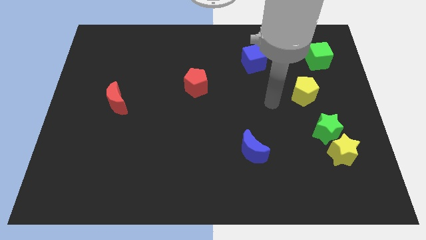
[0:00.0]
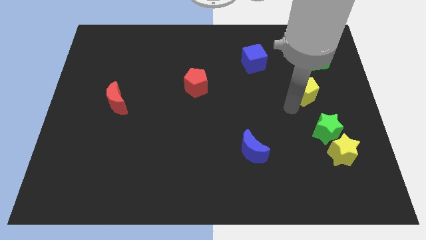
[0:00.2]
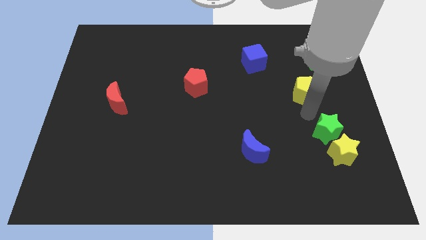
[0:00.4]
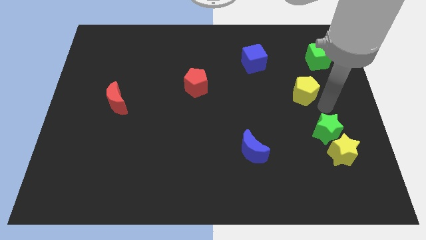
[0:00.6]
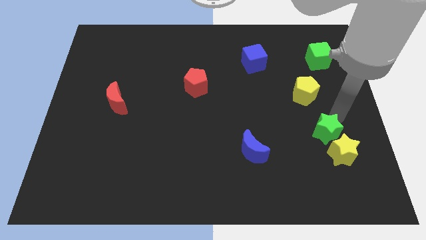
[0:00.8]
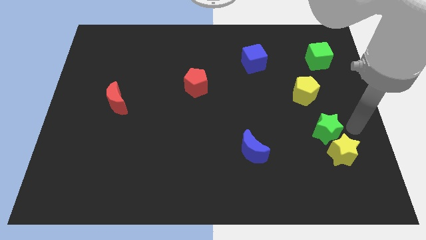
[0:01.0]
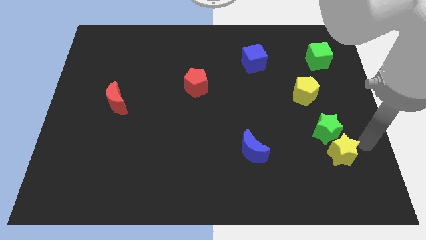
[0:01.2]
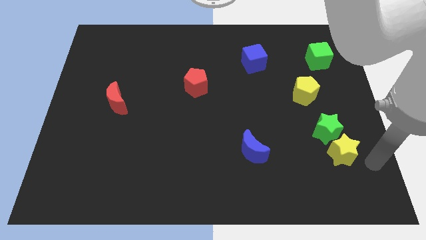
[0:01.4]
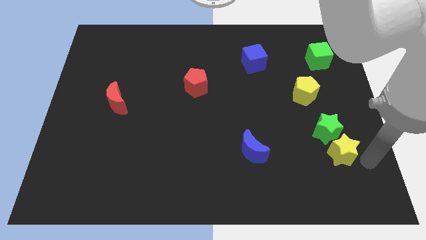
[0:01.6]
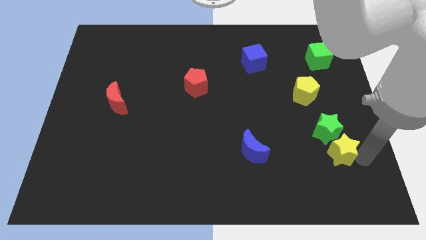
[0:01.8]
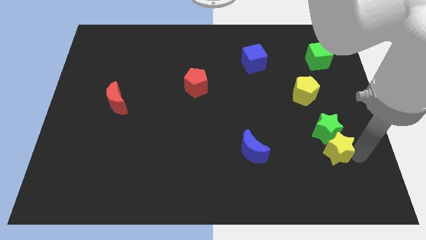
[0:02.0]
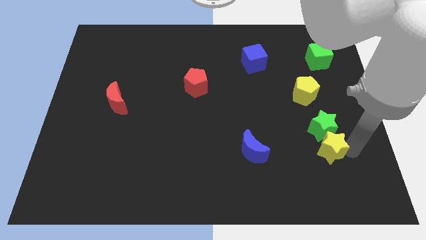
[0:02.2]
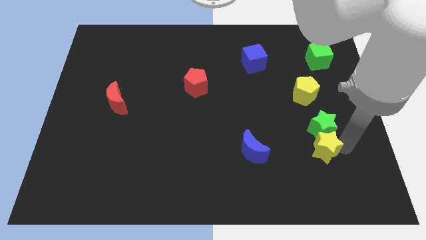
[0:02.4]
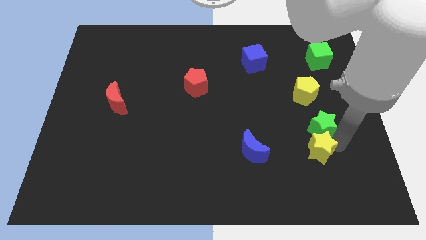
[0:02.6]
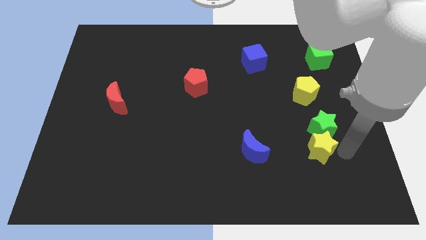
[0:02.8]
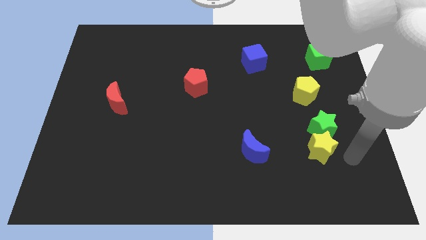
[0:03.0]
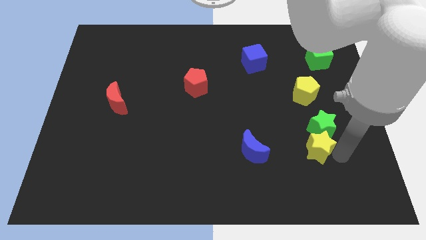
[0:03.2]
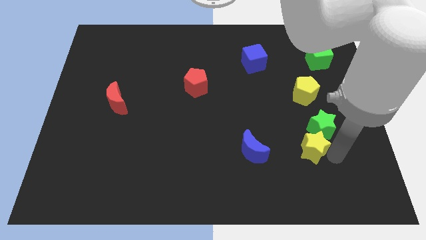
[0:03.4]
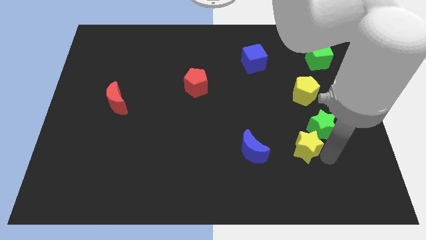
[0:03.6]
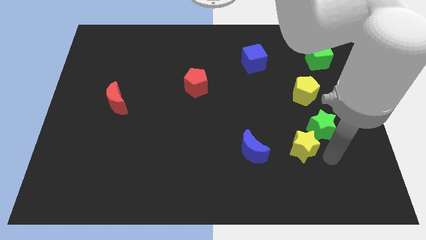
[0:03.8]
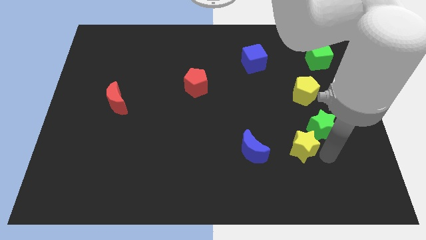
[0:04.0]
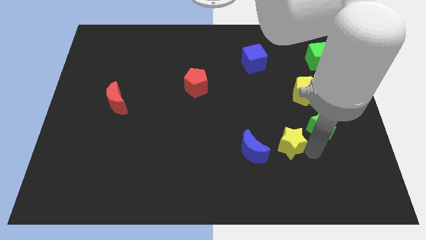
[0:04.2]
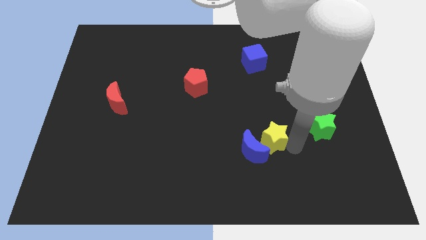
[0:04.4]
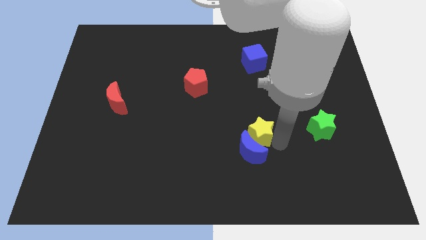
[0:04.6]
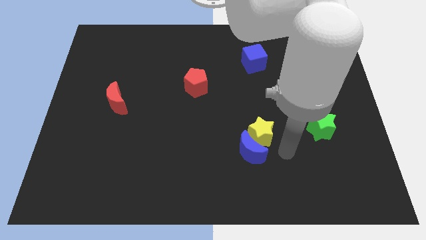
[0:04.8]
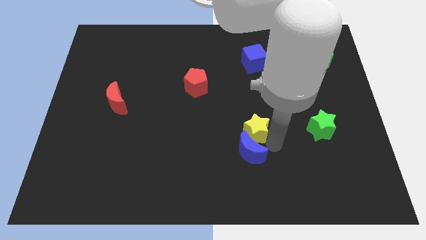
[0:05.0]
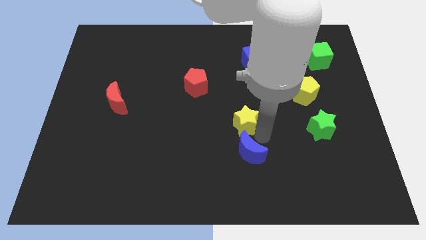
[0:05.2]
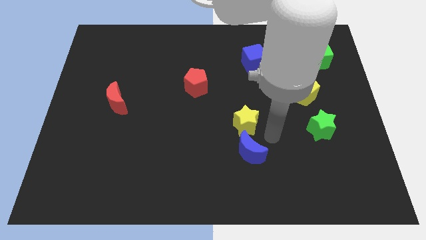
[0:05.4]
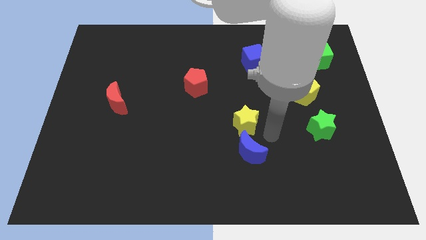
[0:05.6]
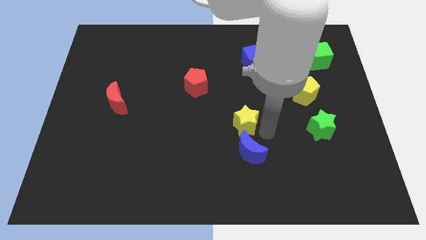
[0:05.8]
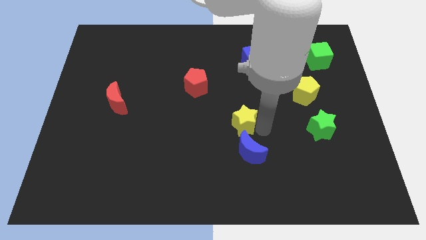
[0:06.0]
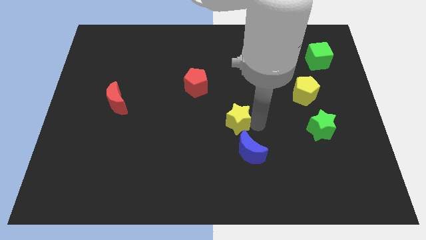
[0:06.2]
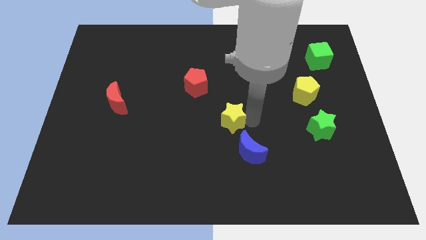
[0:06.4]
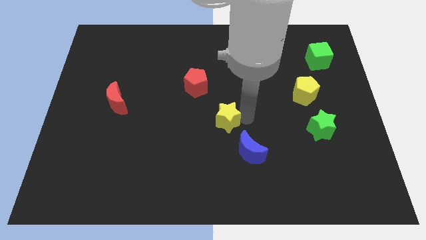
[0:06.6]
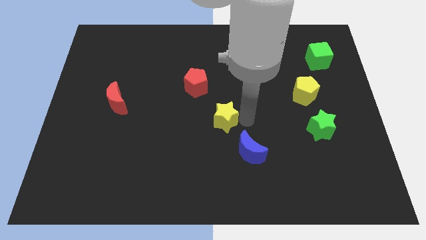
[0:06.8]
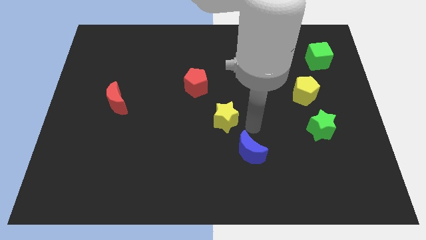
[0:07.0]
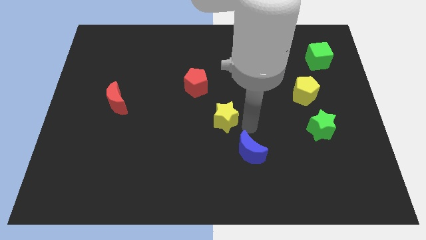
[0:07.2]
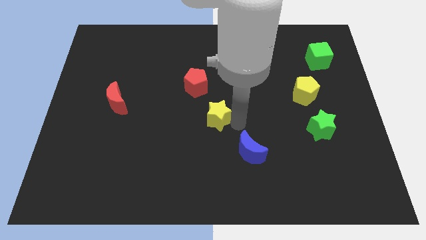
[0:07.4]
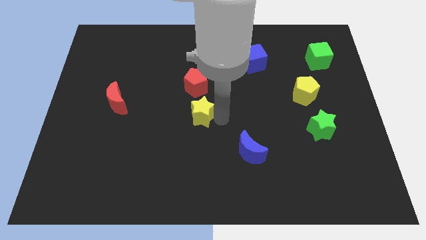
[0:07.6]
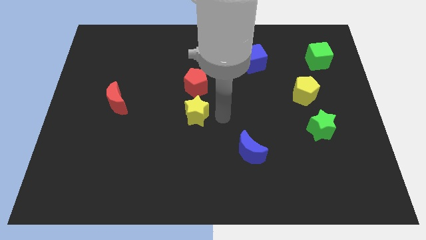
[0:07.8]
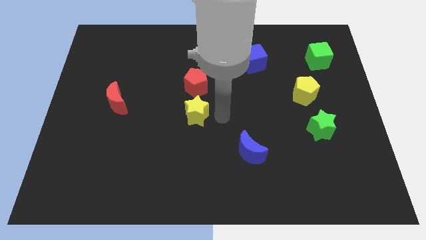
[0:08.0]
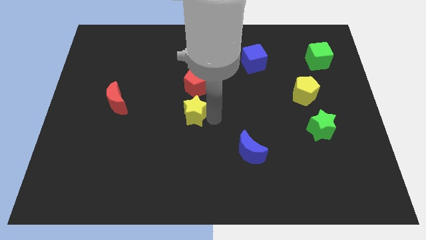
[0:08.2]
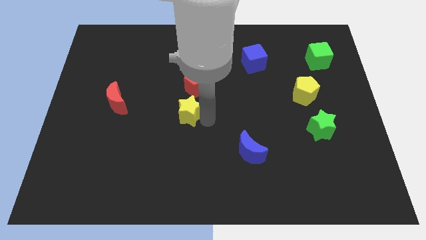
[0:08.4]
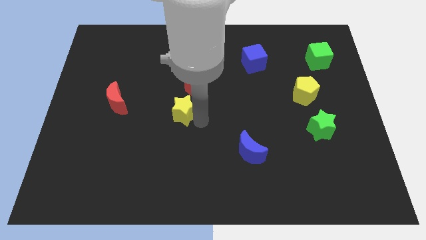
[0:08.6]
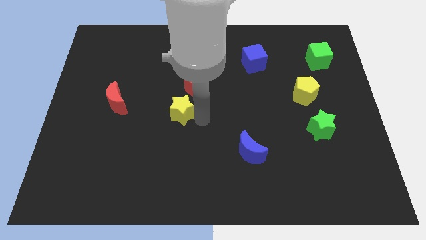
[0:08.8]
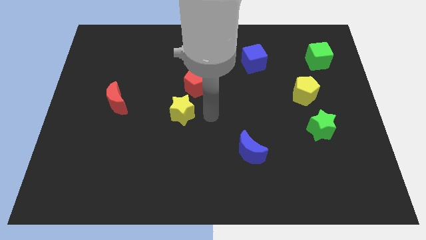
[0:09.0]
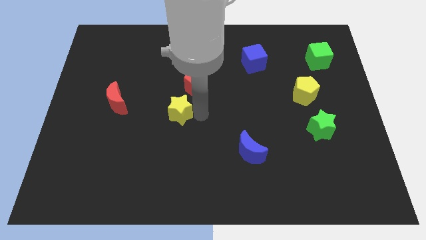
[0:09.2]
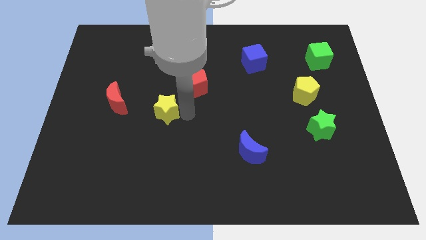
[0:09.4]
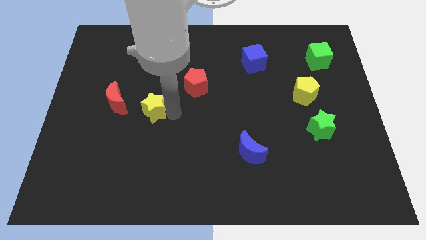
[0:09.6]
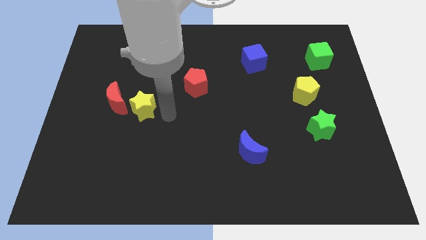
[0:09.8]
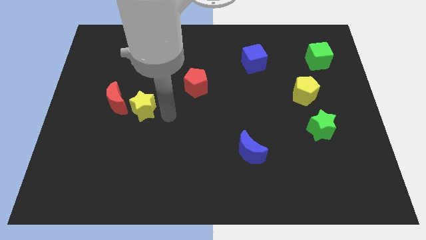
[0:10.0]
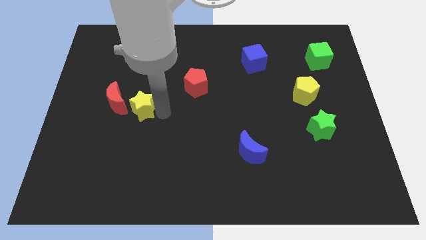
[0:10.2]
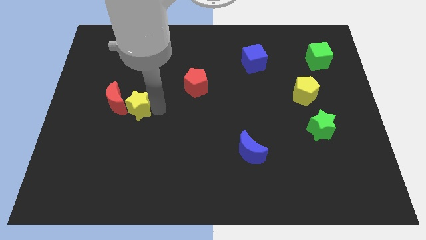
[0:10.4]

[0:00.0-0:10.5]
slide the yellow star next to the red moon

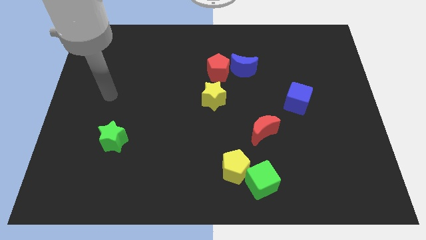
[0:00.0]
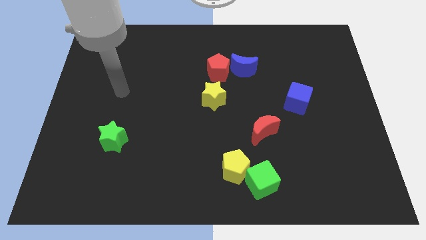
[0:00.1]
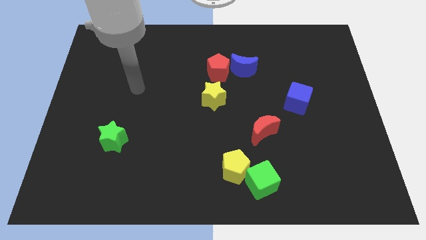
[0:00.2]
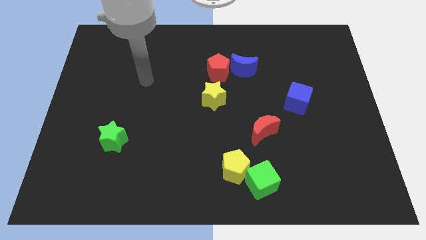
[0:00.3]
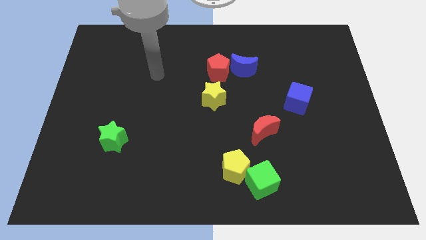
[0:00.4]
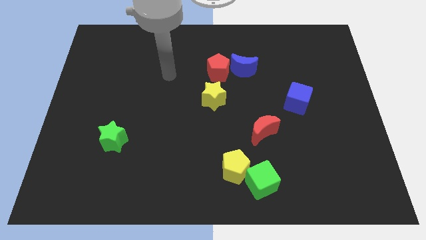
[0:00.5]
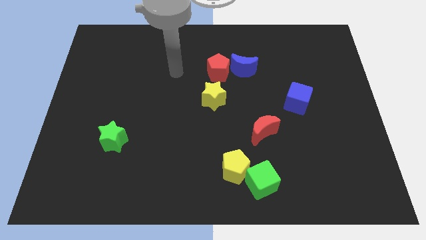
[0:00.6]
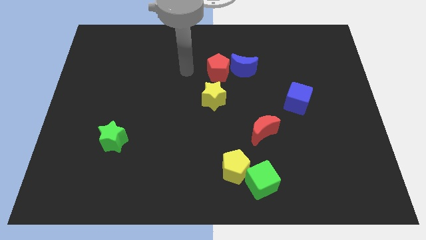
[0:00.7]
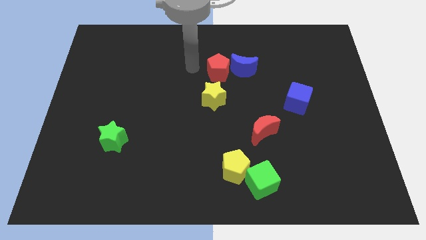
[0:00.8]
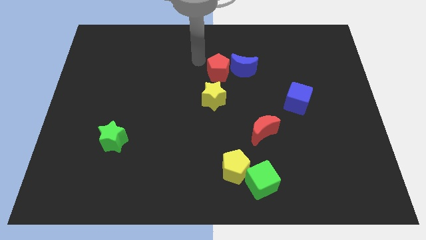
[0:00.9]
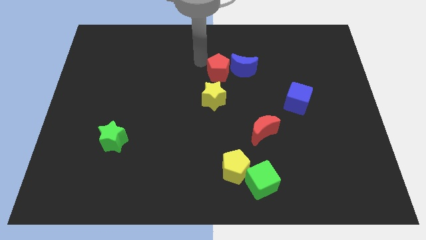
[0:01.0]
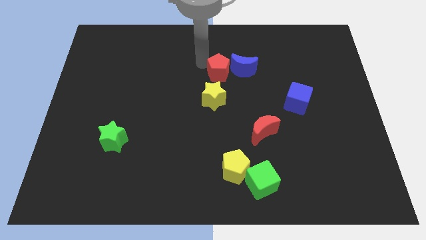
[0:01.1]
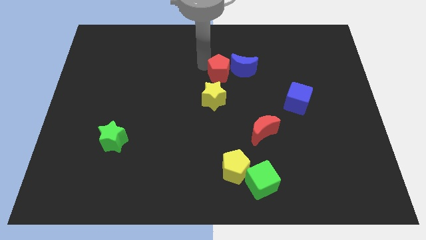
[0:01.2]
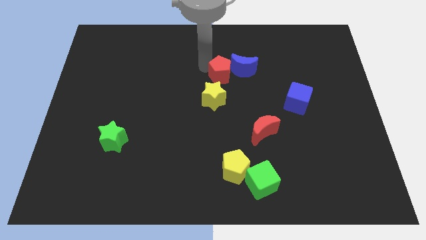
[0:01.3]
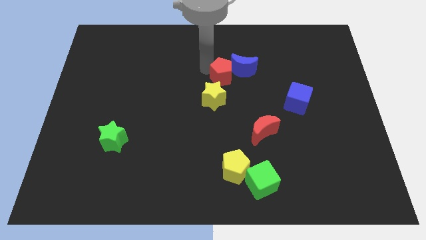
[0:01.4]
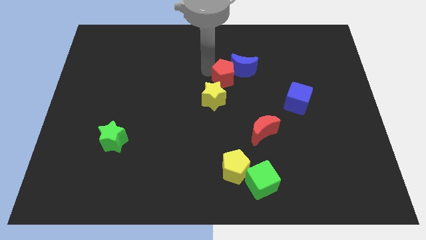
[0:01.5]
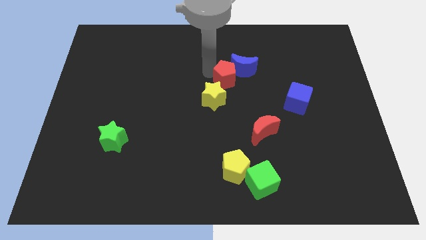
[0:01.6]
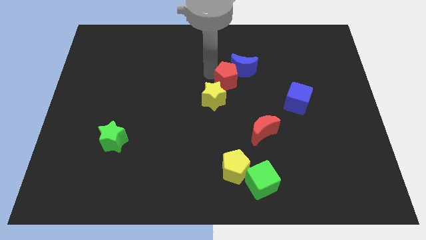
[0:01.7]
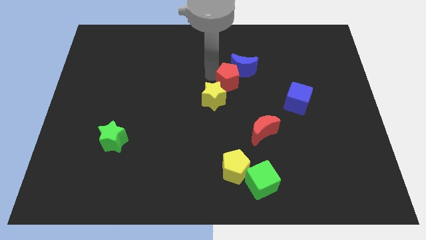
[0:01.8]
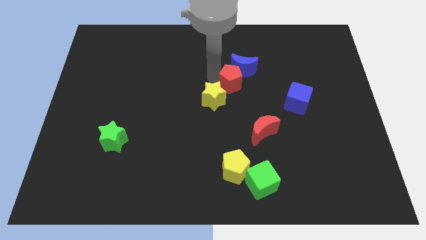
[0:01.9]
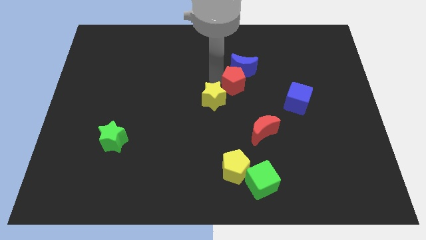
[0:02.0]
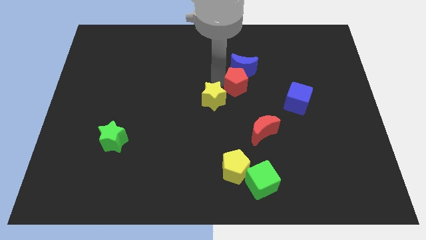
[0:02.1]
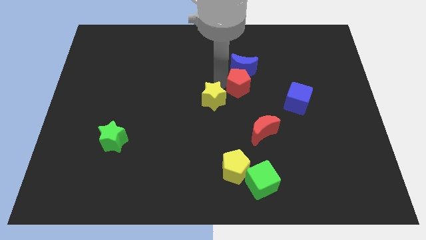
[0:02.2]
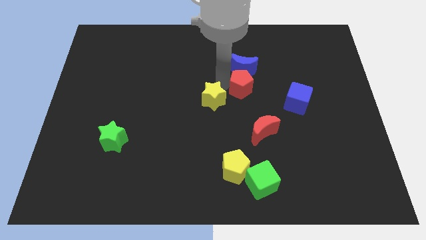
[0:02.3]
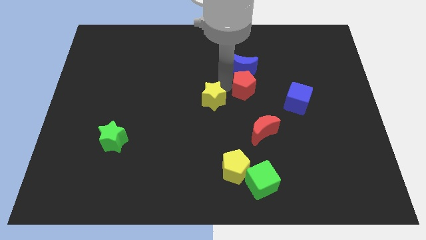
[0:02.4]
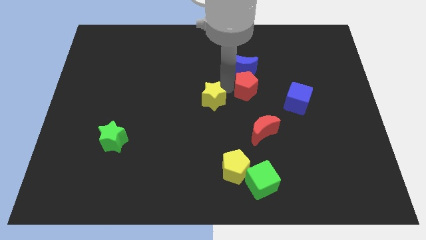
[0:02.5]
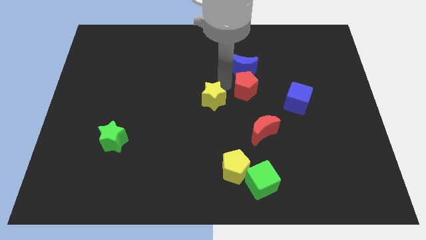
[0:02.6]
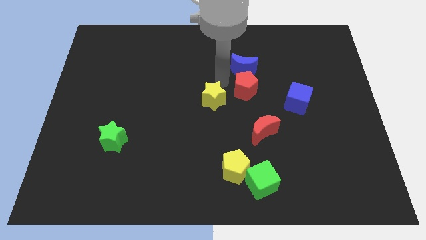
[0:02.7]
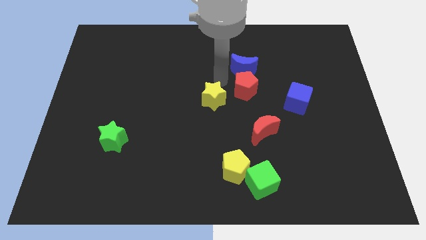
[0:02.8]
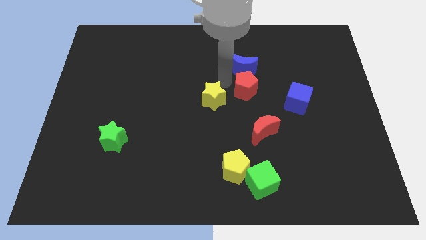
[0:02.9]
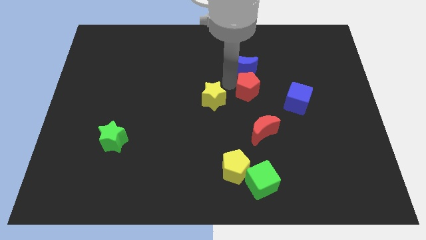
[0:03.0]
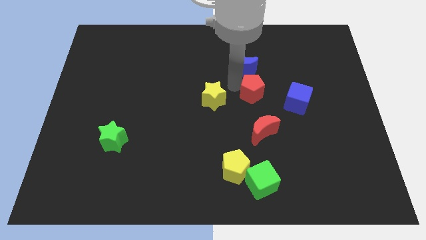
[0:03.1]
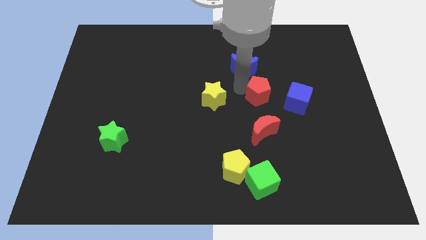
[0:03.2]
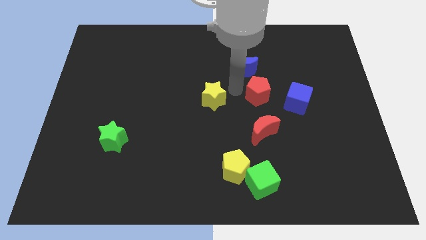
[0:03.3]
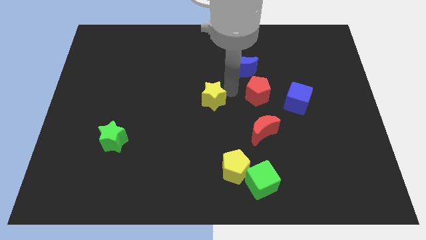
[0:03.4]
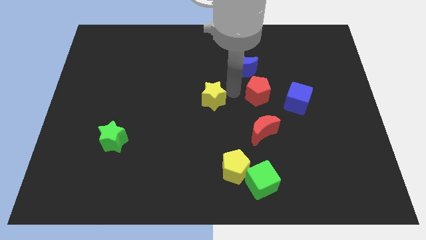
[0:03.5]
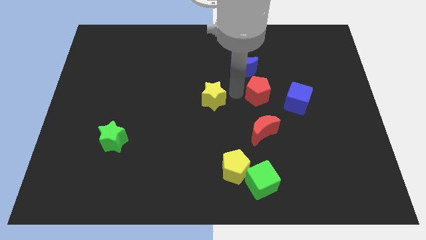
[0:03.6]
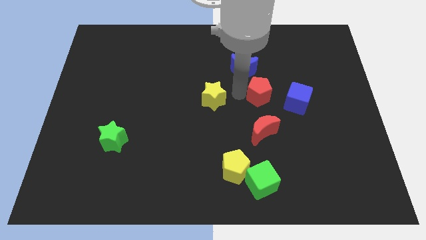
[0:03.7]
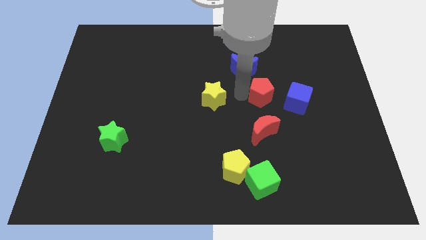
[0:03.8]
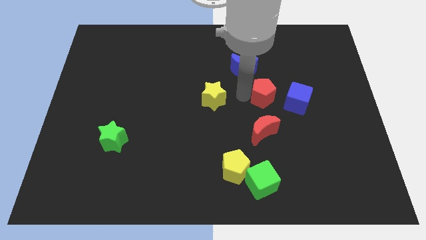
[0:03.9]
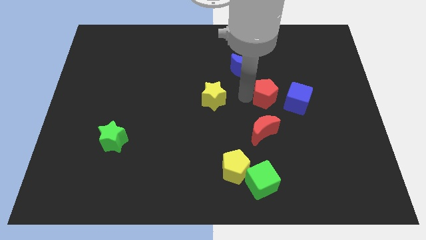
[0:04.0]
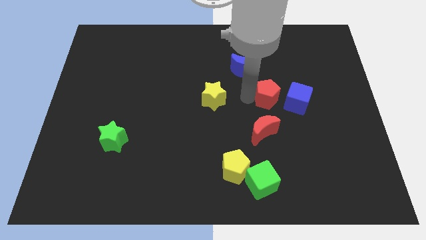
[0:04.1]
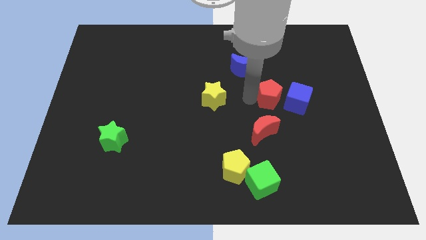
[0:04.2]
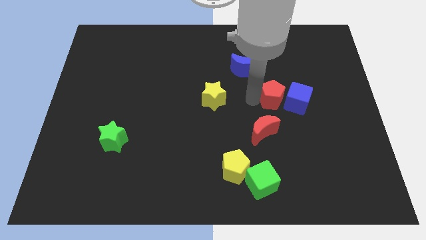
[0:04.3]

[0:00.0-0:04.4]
push the red pentagon next to the blue cube
